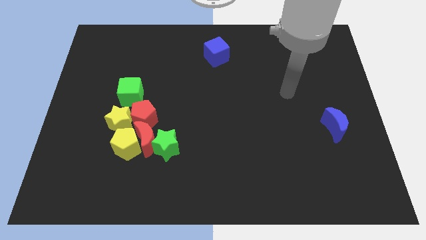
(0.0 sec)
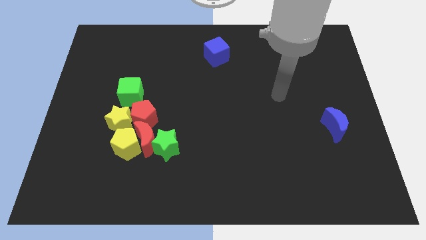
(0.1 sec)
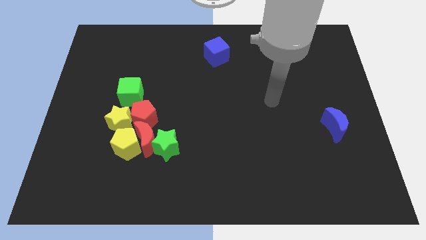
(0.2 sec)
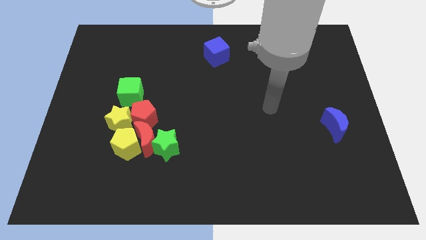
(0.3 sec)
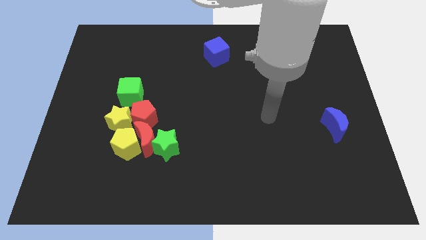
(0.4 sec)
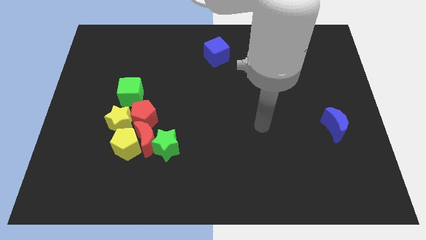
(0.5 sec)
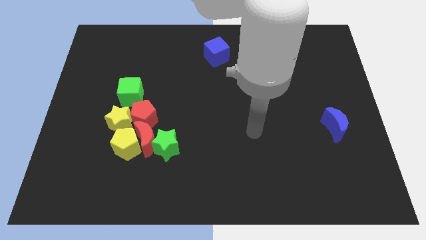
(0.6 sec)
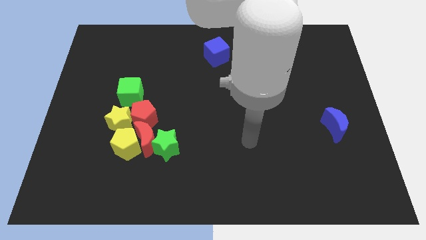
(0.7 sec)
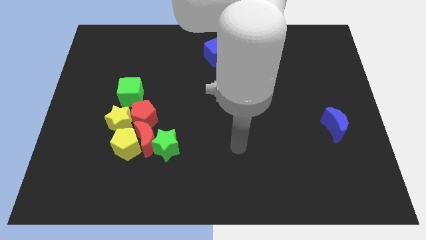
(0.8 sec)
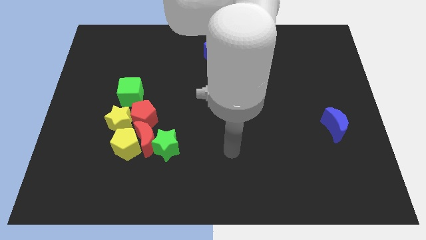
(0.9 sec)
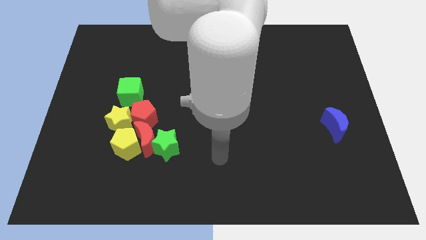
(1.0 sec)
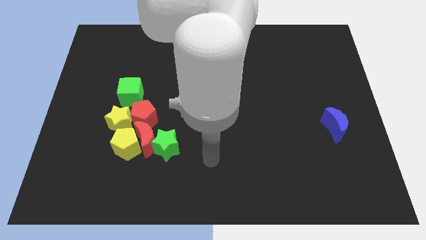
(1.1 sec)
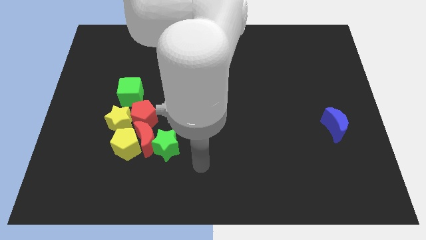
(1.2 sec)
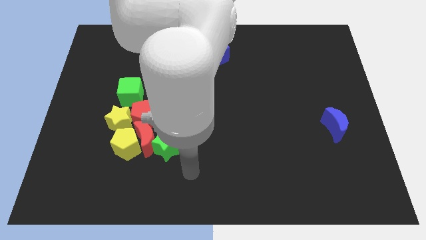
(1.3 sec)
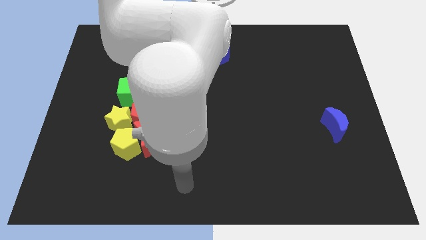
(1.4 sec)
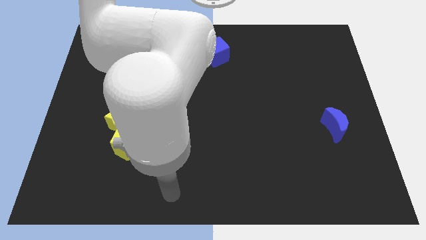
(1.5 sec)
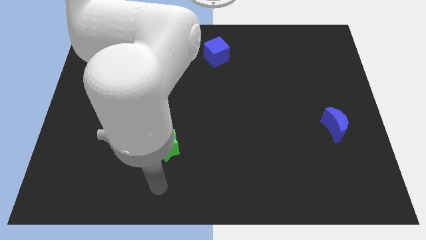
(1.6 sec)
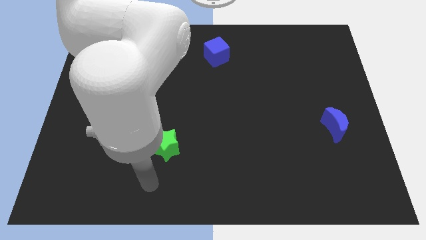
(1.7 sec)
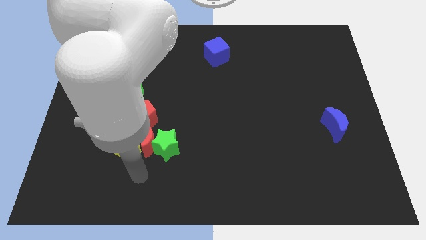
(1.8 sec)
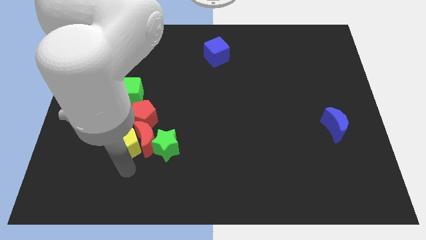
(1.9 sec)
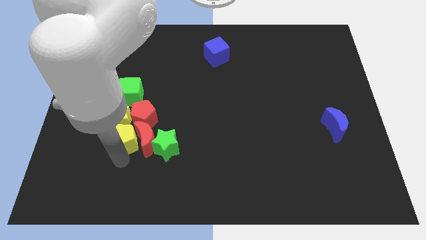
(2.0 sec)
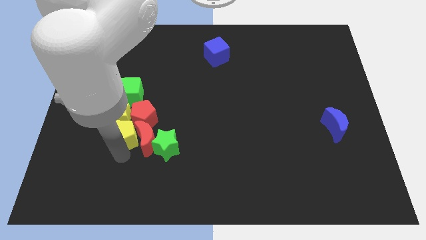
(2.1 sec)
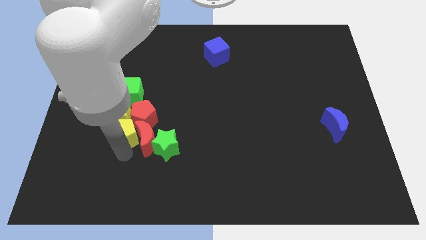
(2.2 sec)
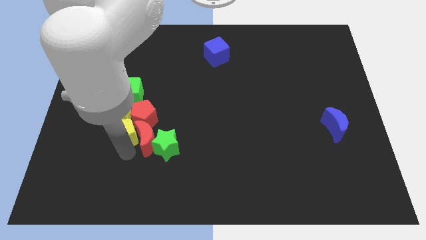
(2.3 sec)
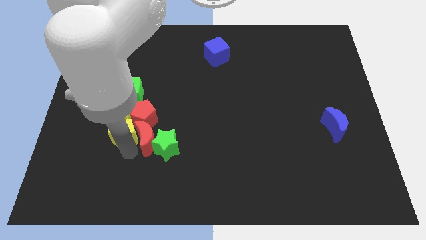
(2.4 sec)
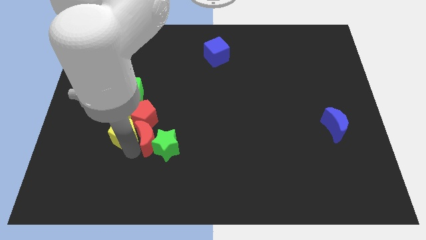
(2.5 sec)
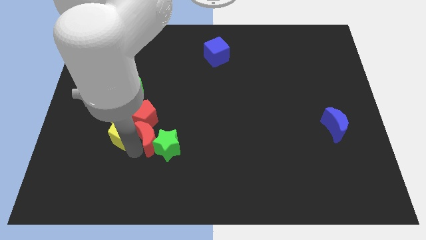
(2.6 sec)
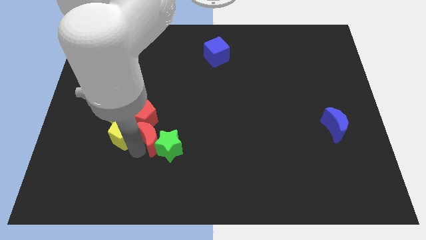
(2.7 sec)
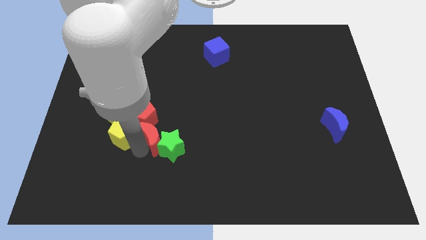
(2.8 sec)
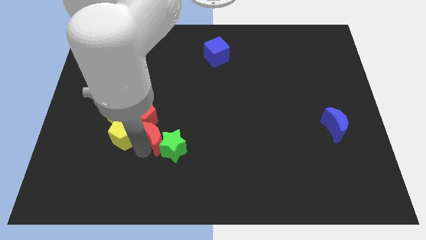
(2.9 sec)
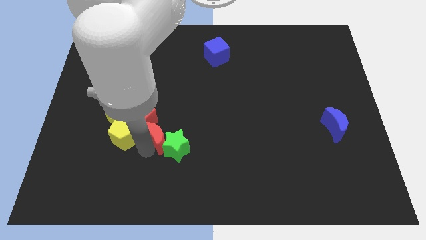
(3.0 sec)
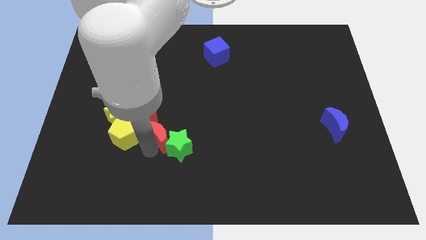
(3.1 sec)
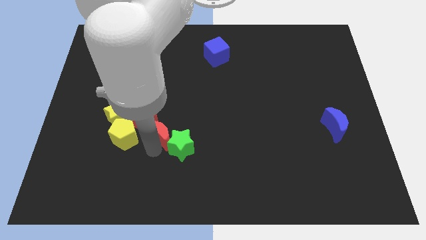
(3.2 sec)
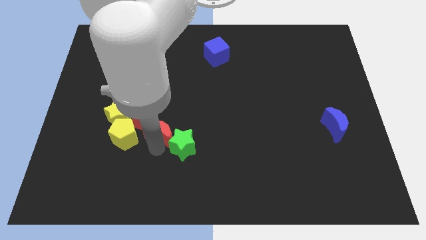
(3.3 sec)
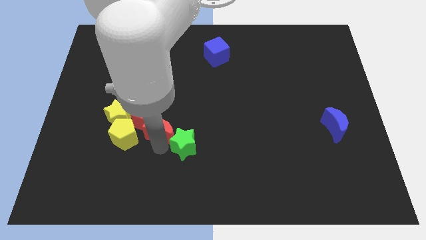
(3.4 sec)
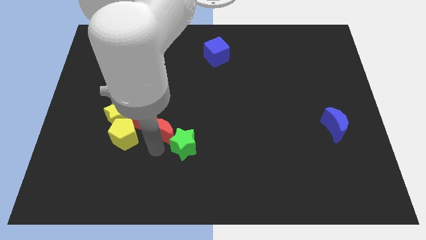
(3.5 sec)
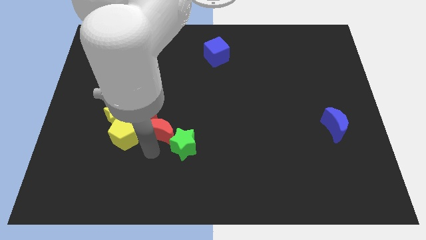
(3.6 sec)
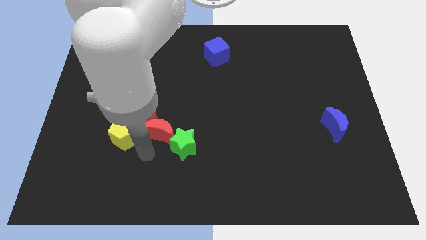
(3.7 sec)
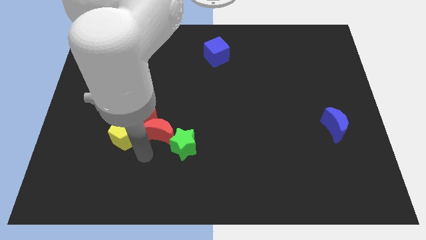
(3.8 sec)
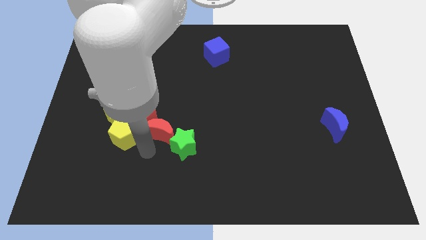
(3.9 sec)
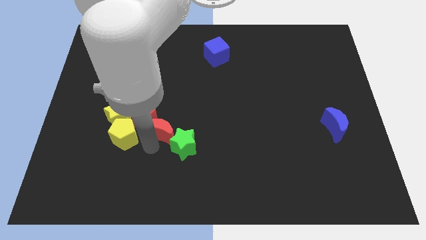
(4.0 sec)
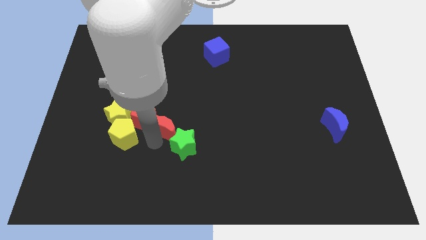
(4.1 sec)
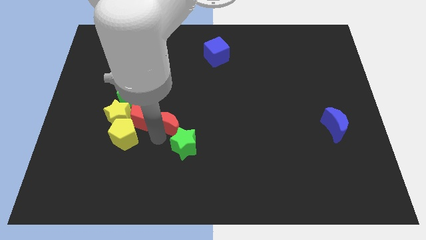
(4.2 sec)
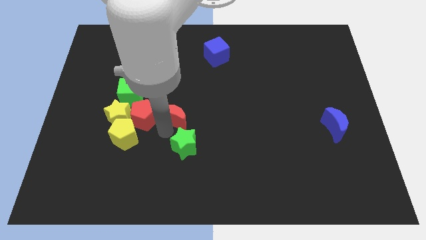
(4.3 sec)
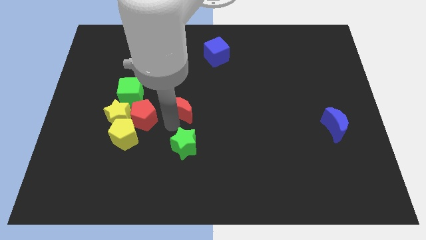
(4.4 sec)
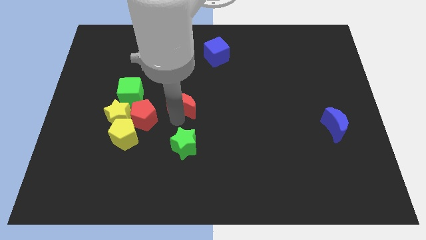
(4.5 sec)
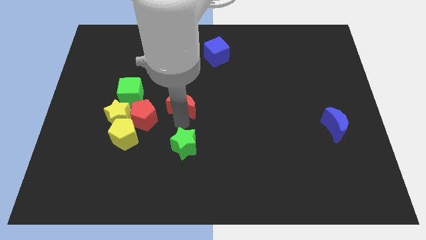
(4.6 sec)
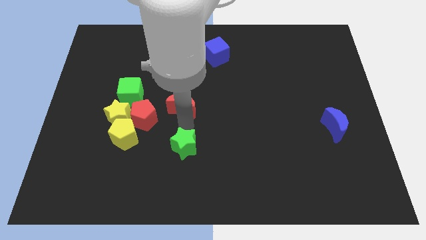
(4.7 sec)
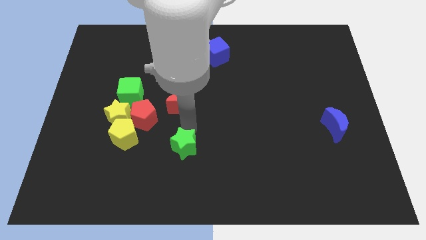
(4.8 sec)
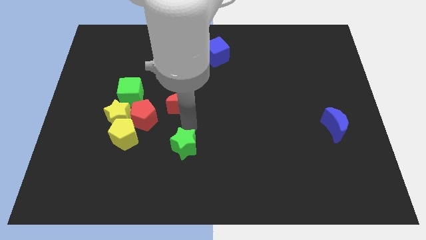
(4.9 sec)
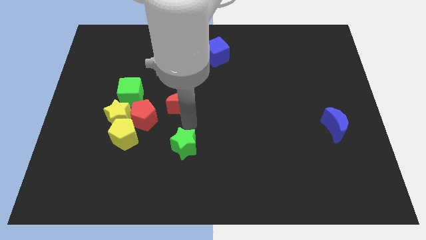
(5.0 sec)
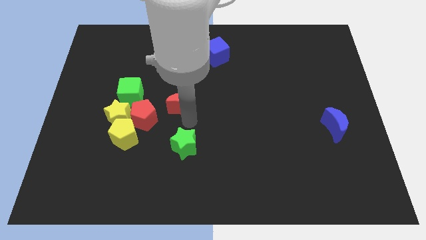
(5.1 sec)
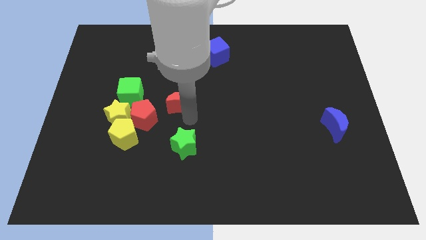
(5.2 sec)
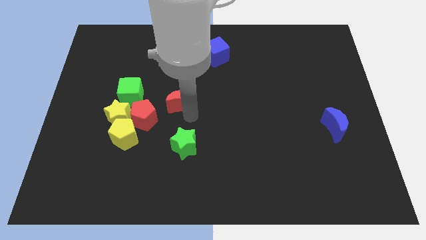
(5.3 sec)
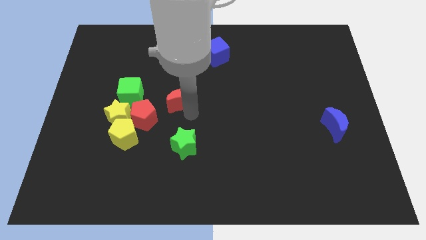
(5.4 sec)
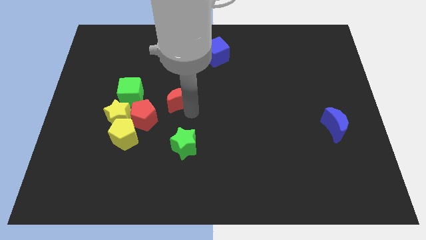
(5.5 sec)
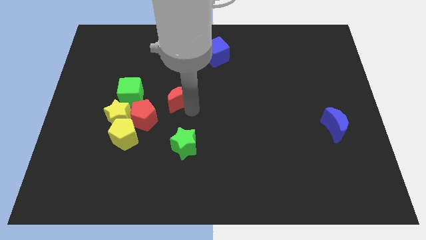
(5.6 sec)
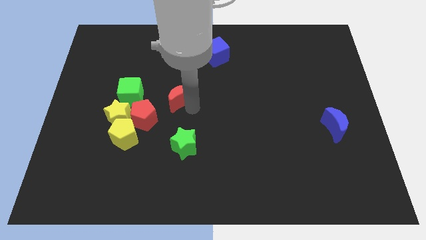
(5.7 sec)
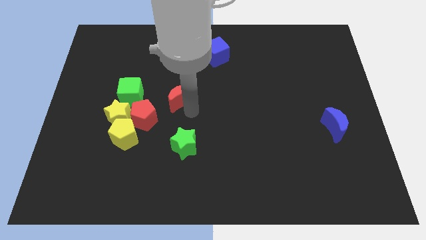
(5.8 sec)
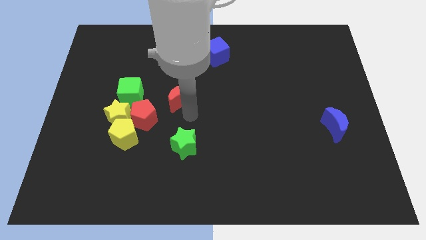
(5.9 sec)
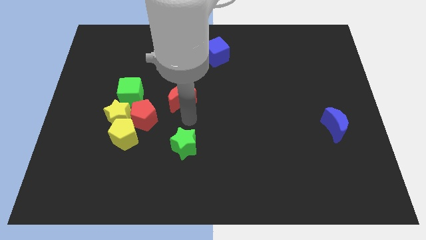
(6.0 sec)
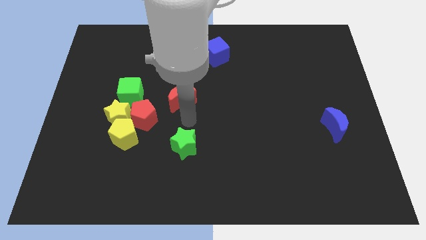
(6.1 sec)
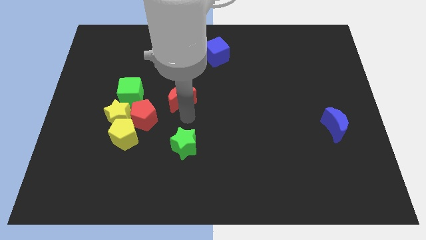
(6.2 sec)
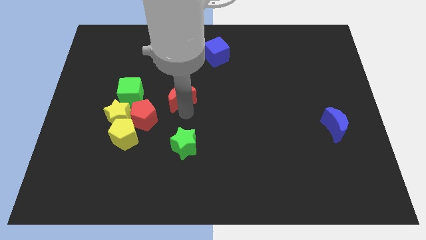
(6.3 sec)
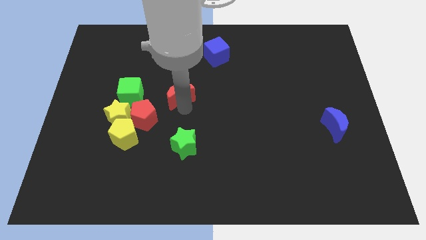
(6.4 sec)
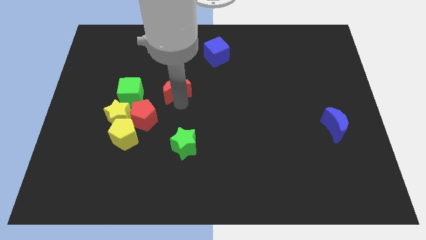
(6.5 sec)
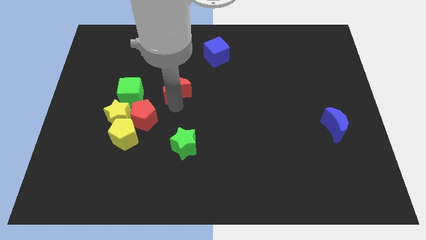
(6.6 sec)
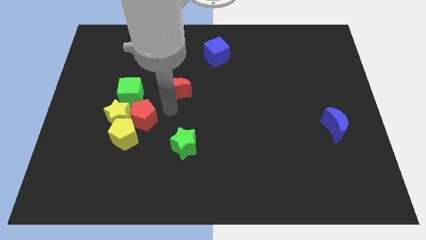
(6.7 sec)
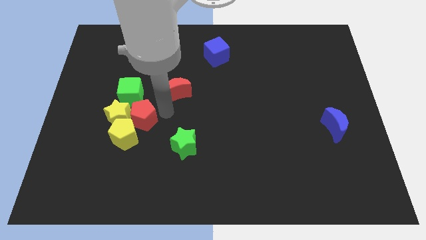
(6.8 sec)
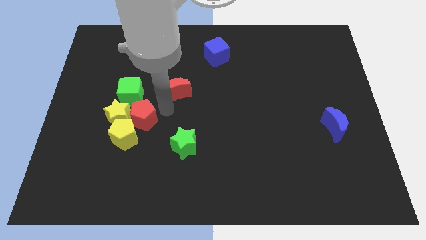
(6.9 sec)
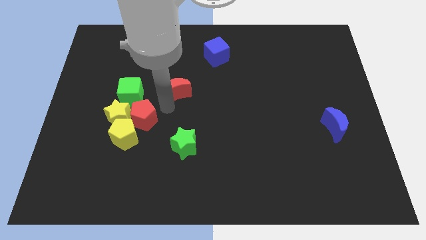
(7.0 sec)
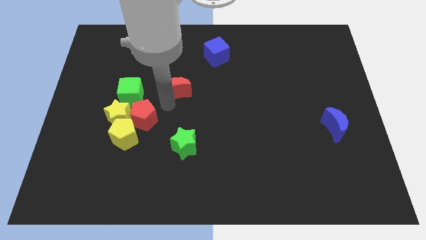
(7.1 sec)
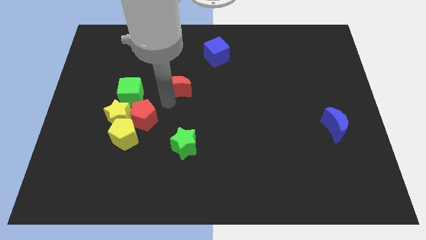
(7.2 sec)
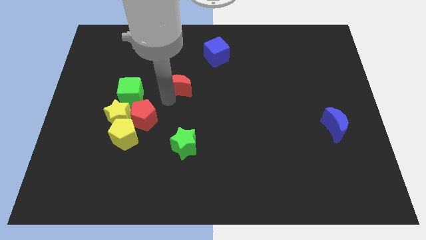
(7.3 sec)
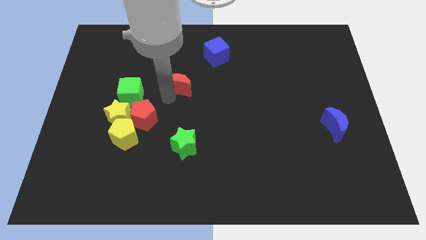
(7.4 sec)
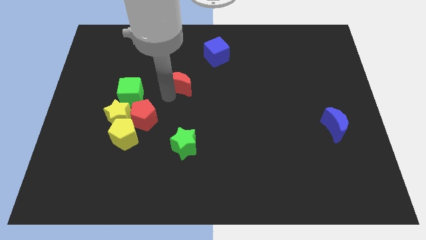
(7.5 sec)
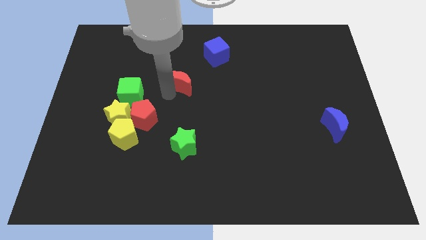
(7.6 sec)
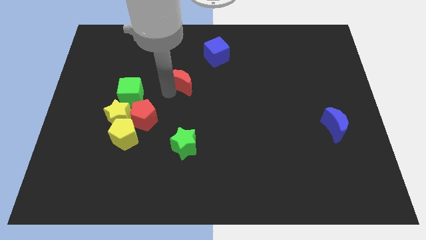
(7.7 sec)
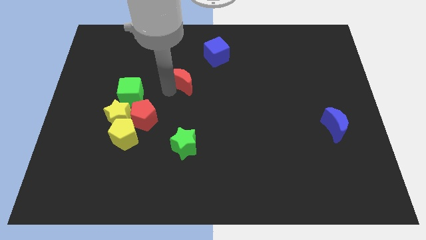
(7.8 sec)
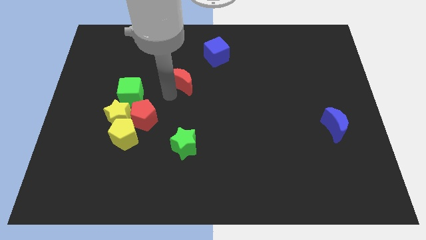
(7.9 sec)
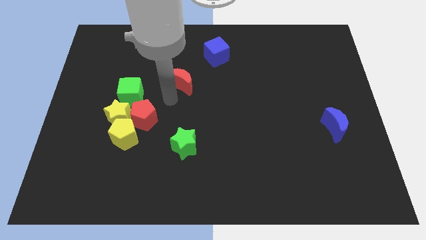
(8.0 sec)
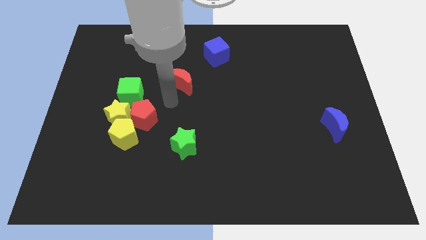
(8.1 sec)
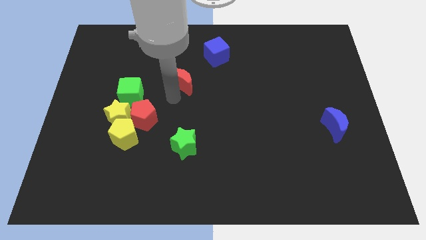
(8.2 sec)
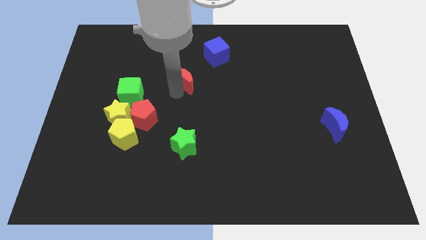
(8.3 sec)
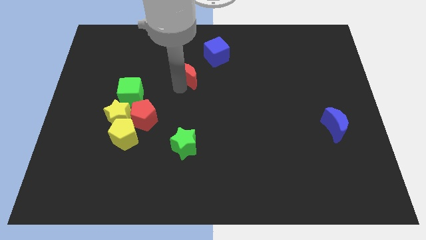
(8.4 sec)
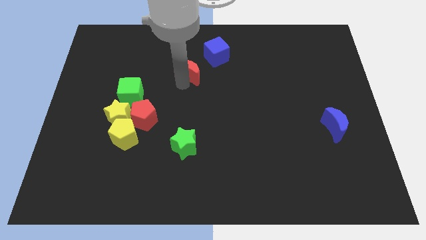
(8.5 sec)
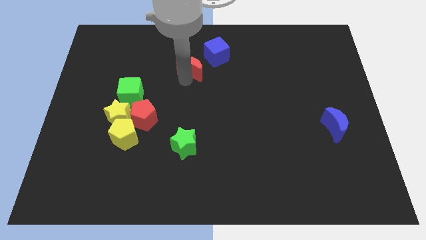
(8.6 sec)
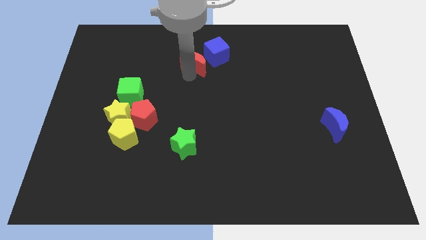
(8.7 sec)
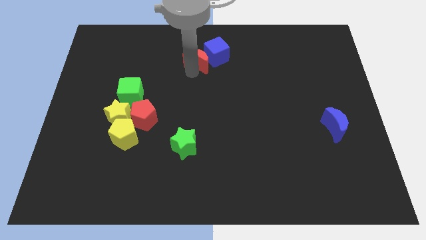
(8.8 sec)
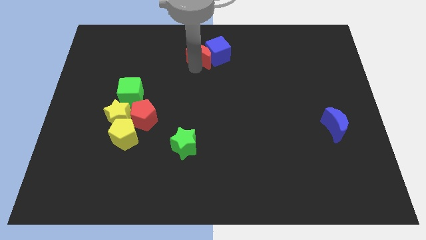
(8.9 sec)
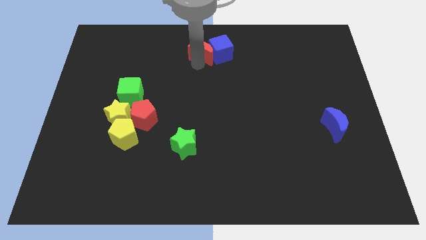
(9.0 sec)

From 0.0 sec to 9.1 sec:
push the red moon to the top side
